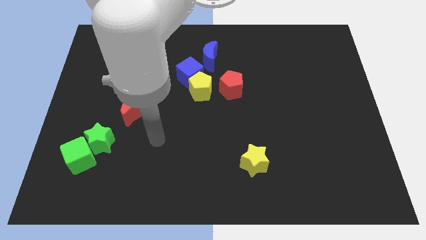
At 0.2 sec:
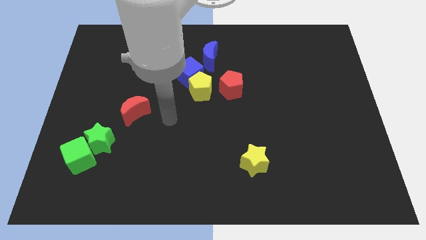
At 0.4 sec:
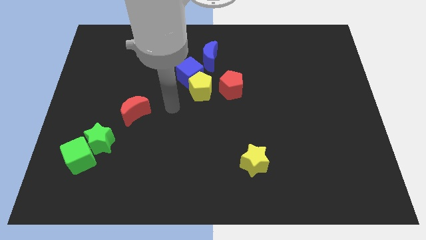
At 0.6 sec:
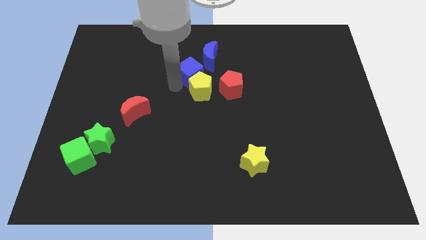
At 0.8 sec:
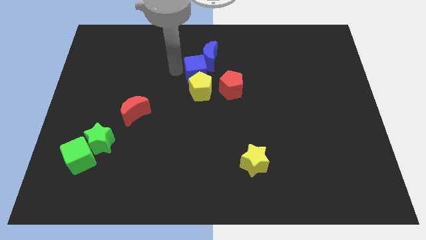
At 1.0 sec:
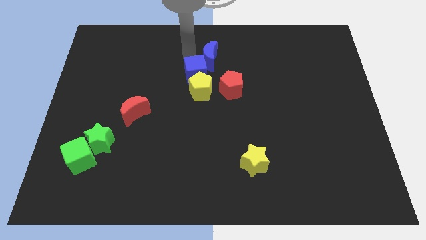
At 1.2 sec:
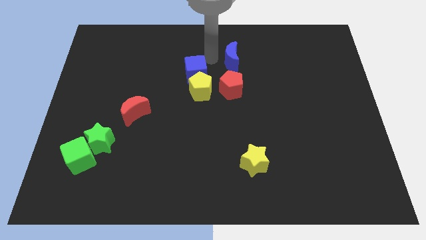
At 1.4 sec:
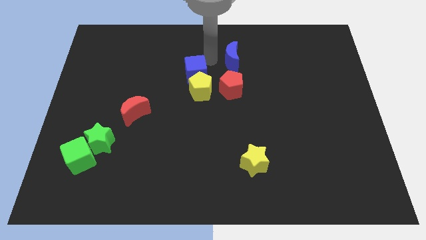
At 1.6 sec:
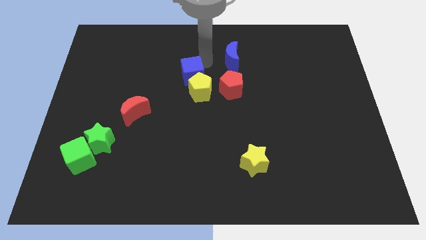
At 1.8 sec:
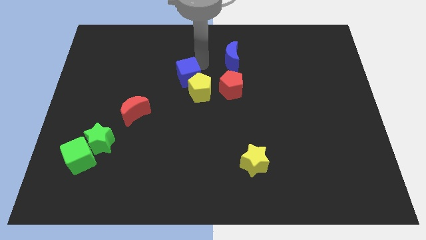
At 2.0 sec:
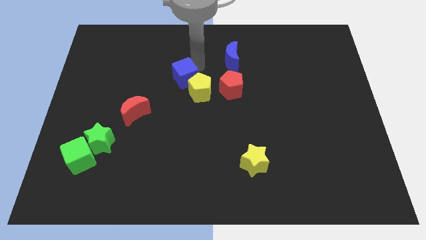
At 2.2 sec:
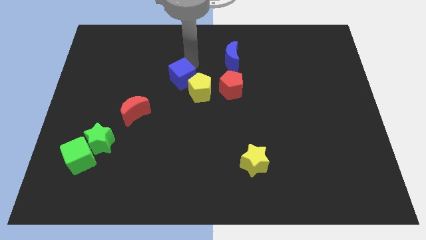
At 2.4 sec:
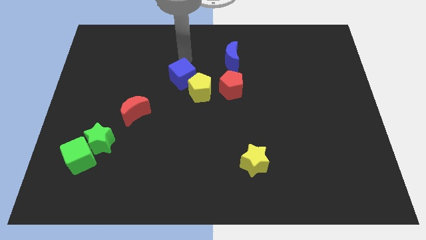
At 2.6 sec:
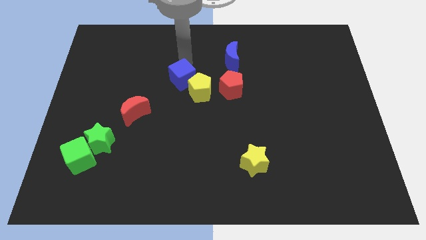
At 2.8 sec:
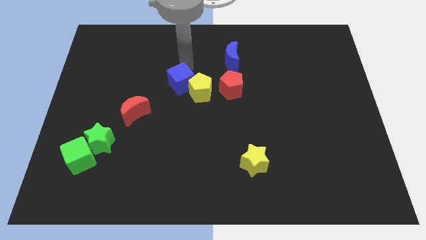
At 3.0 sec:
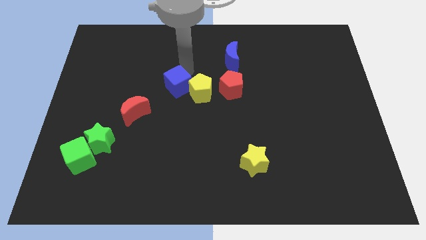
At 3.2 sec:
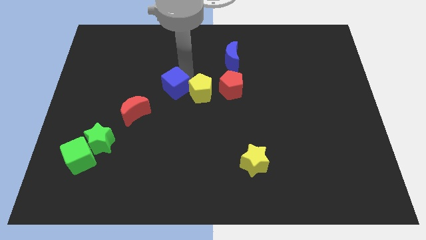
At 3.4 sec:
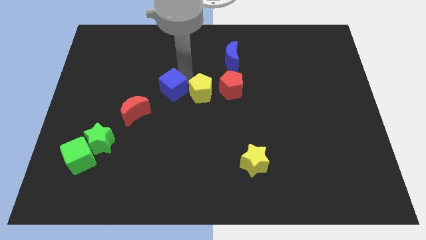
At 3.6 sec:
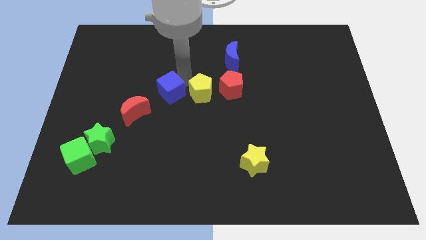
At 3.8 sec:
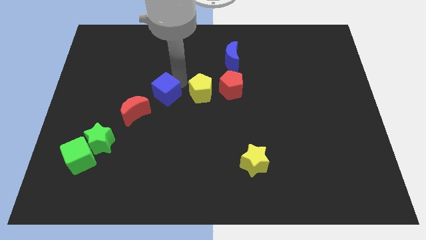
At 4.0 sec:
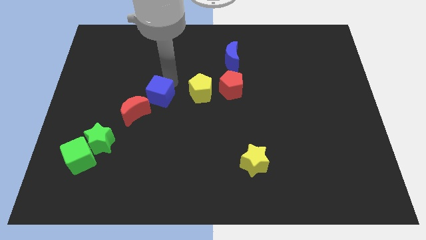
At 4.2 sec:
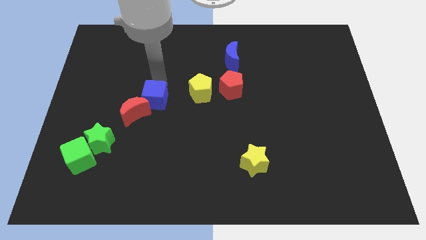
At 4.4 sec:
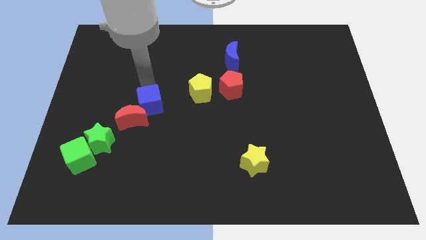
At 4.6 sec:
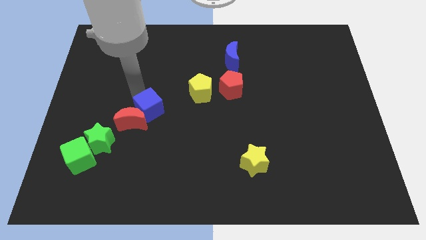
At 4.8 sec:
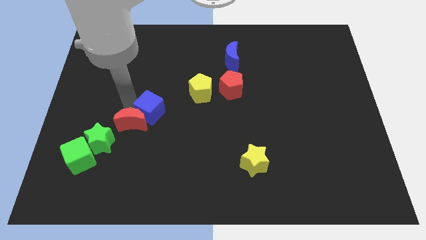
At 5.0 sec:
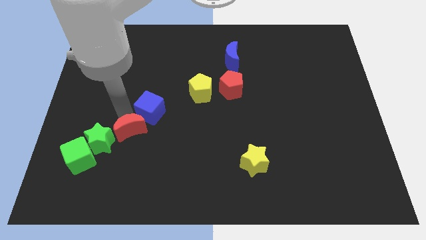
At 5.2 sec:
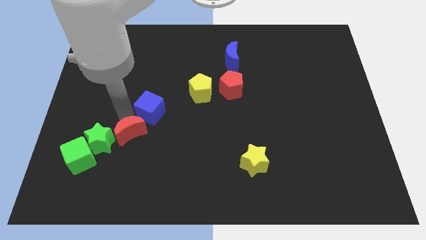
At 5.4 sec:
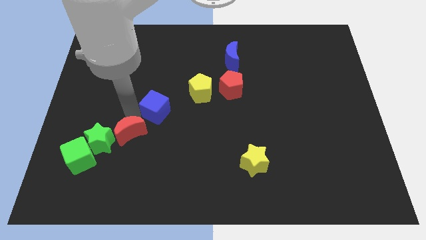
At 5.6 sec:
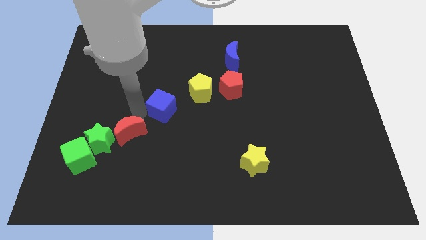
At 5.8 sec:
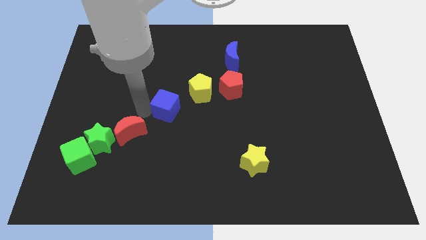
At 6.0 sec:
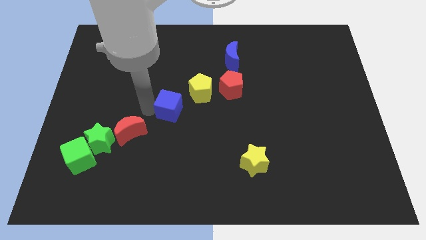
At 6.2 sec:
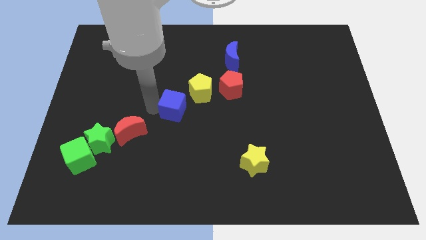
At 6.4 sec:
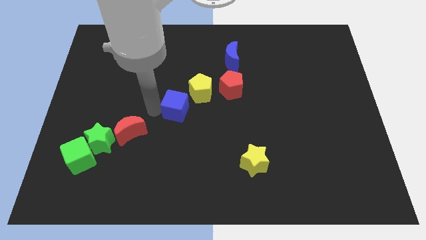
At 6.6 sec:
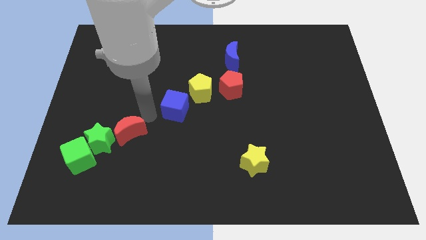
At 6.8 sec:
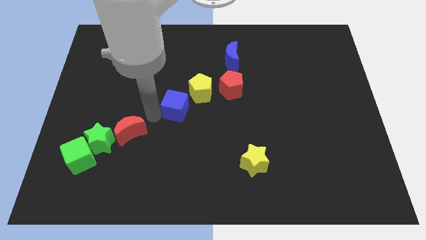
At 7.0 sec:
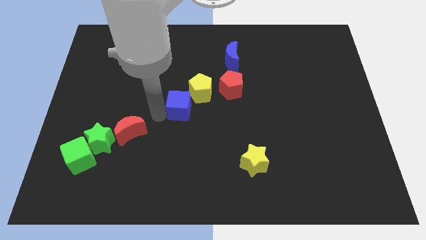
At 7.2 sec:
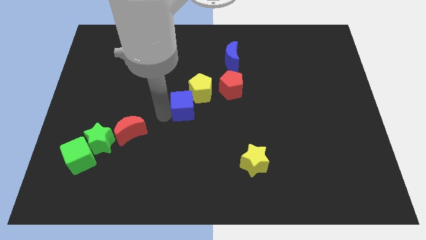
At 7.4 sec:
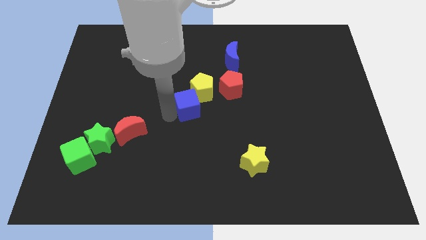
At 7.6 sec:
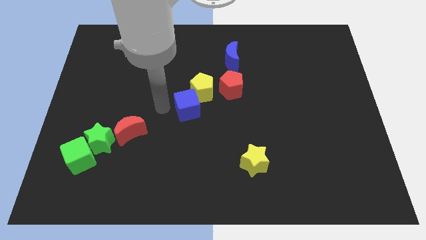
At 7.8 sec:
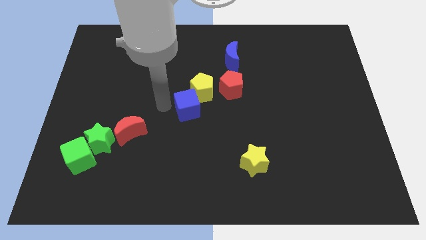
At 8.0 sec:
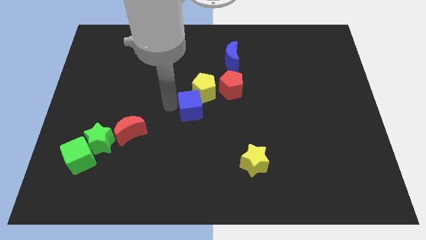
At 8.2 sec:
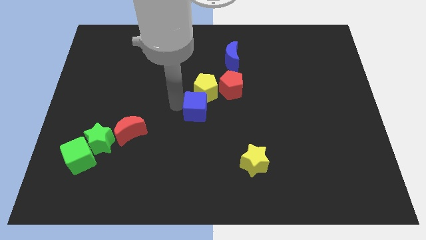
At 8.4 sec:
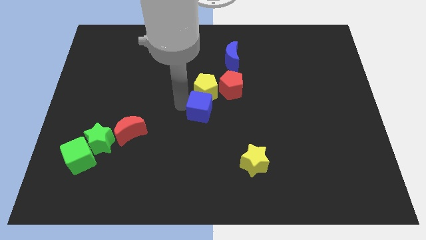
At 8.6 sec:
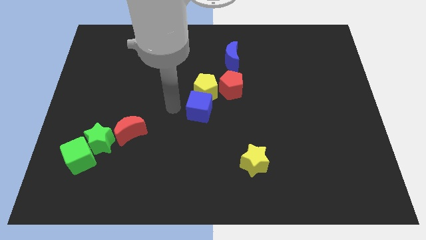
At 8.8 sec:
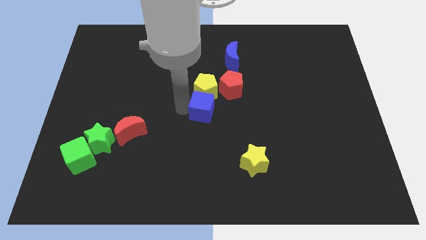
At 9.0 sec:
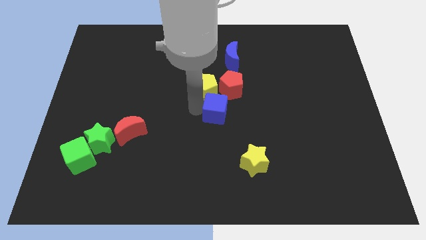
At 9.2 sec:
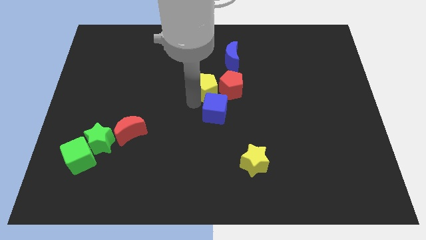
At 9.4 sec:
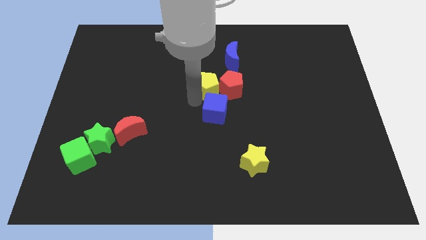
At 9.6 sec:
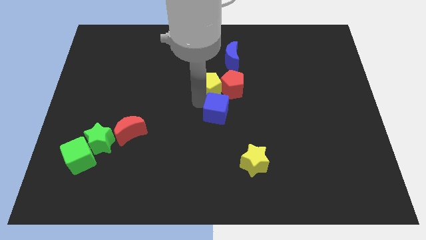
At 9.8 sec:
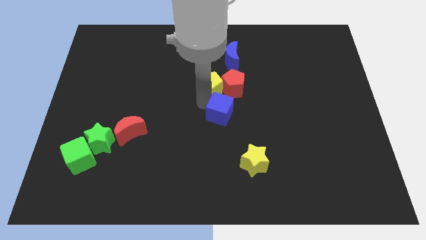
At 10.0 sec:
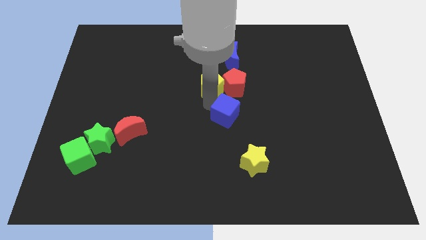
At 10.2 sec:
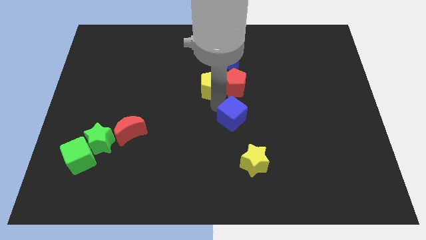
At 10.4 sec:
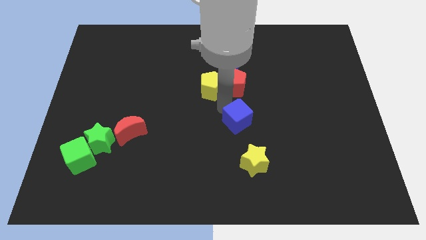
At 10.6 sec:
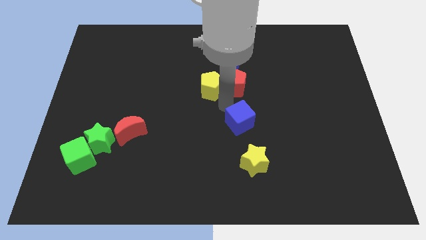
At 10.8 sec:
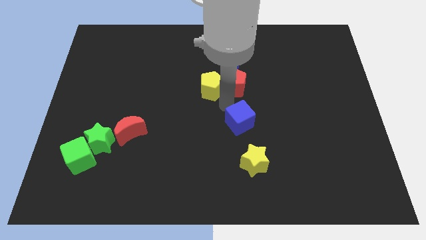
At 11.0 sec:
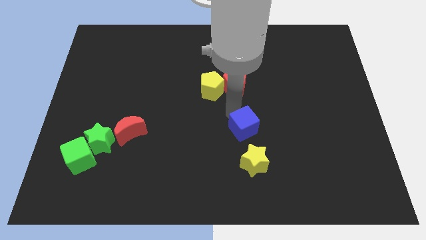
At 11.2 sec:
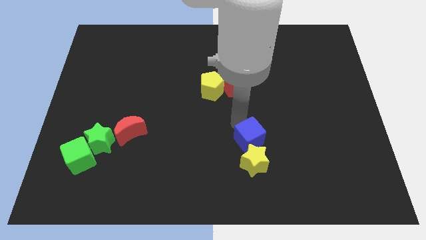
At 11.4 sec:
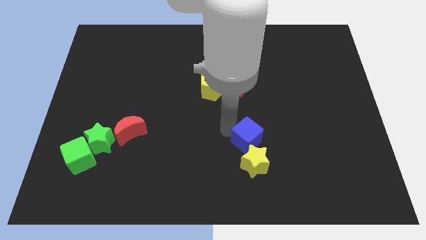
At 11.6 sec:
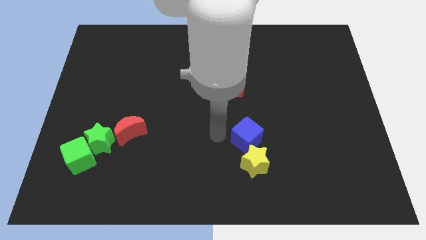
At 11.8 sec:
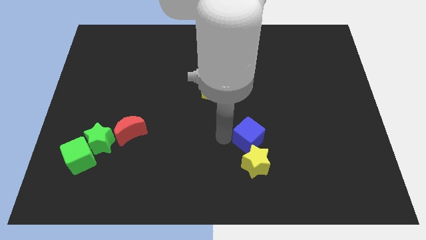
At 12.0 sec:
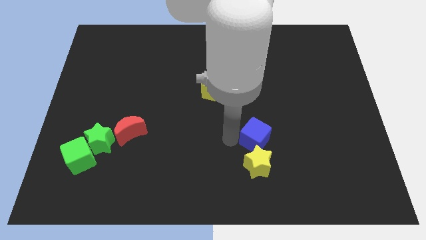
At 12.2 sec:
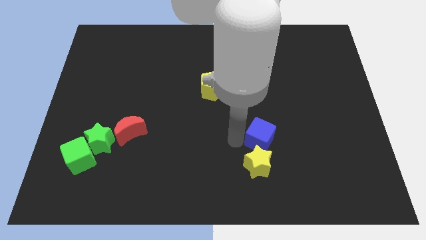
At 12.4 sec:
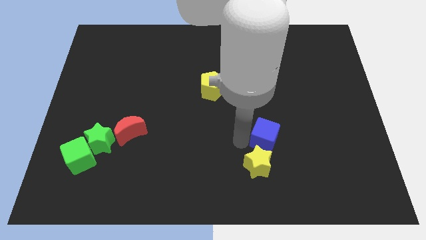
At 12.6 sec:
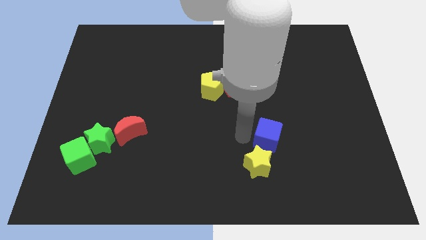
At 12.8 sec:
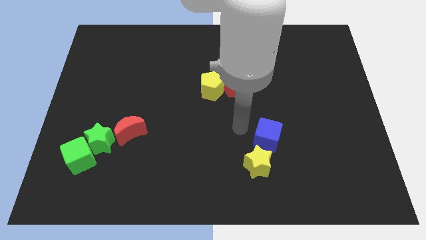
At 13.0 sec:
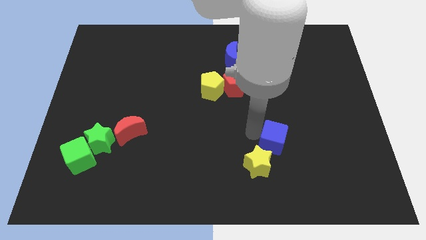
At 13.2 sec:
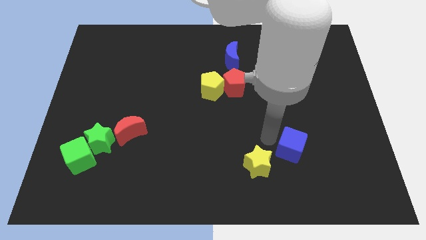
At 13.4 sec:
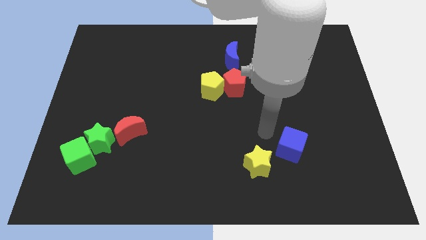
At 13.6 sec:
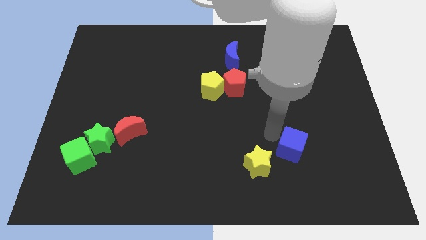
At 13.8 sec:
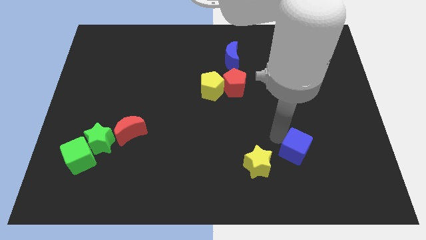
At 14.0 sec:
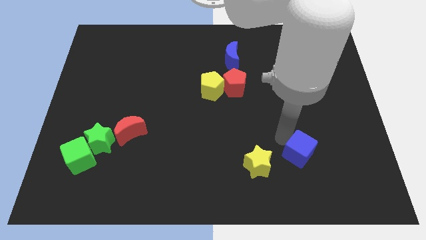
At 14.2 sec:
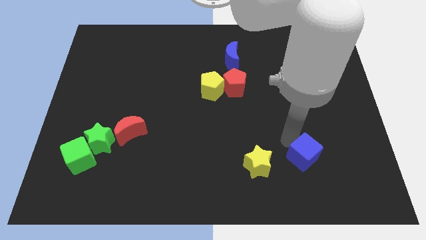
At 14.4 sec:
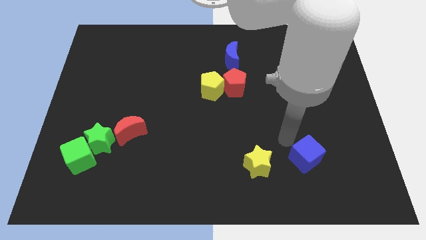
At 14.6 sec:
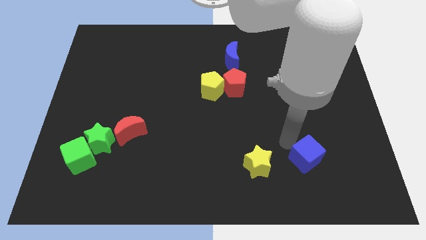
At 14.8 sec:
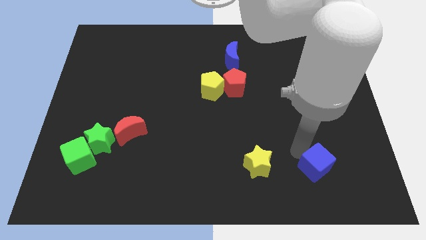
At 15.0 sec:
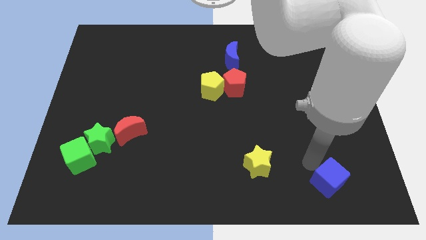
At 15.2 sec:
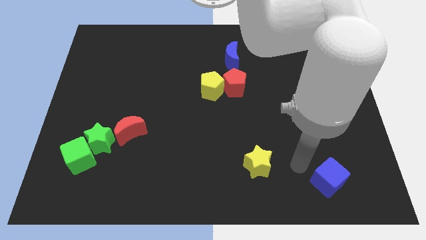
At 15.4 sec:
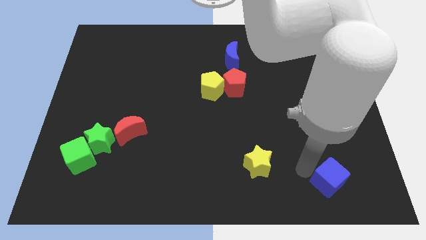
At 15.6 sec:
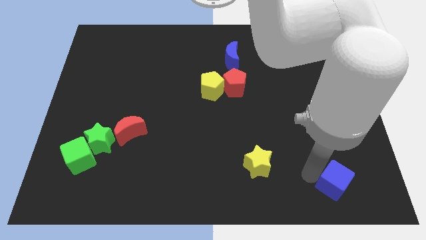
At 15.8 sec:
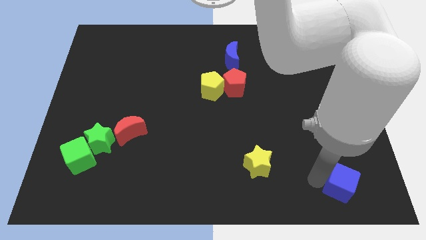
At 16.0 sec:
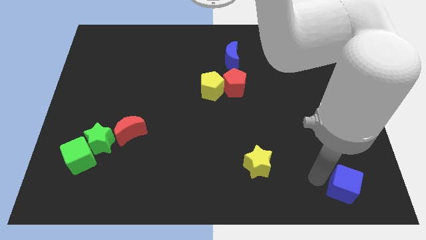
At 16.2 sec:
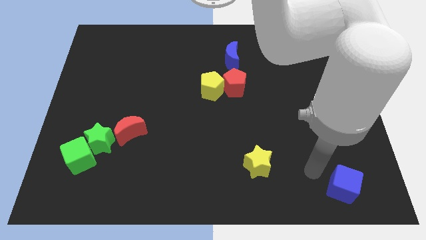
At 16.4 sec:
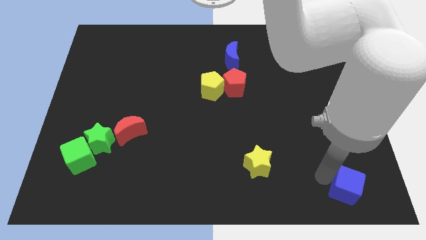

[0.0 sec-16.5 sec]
move the blue cube to the lower right corner

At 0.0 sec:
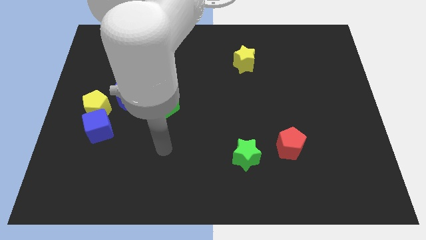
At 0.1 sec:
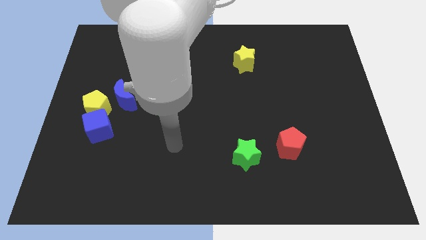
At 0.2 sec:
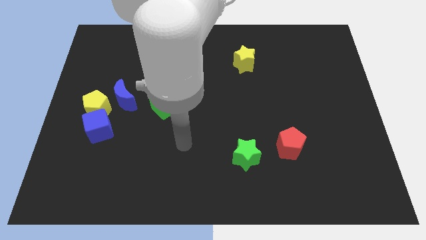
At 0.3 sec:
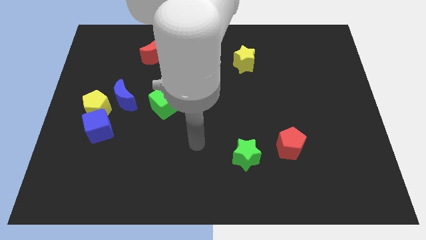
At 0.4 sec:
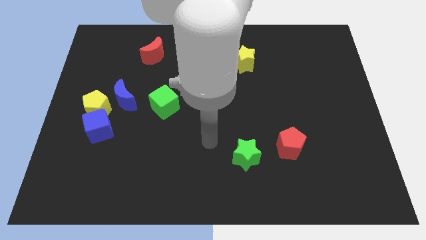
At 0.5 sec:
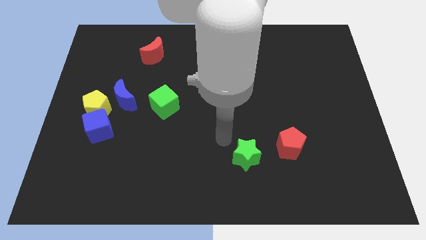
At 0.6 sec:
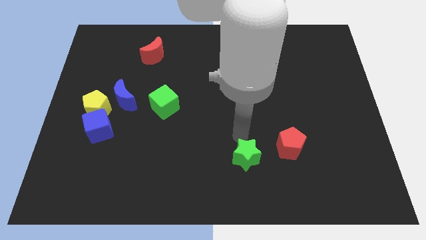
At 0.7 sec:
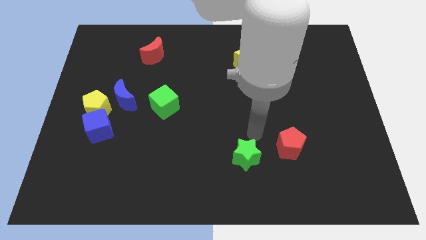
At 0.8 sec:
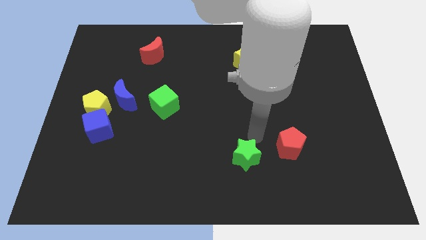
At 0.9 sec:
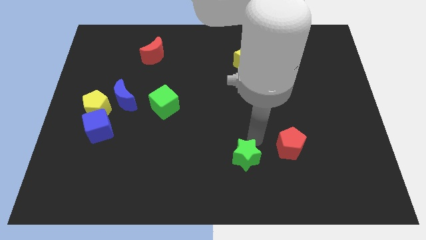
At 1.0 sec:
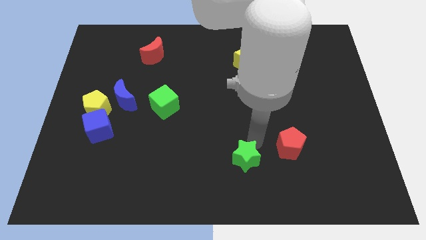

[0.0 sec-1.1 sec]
push the green star to the bottom side
